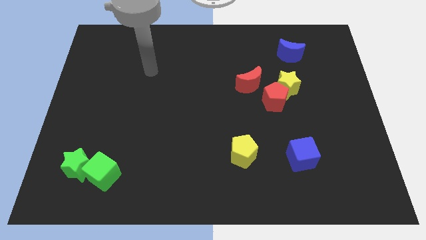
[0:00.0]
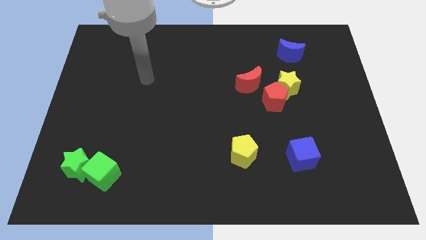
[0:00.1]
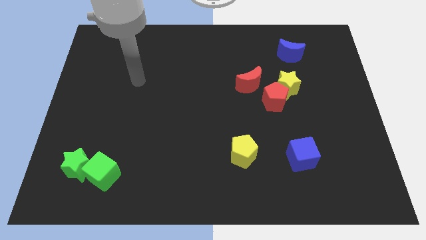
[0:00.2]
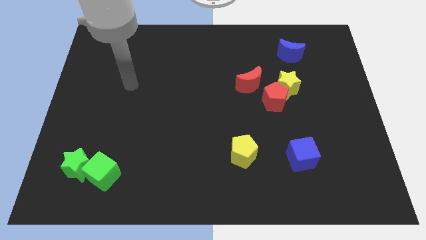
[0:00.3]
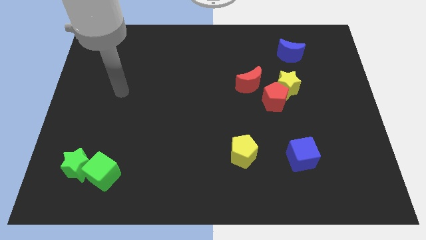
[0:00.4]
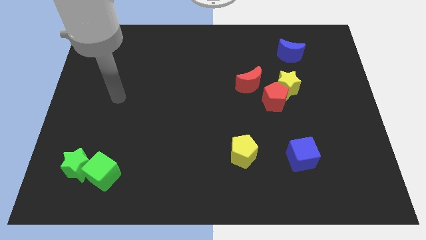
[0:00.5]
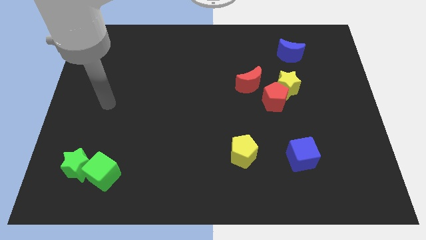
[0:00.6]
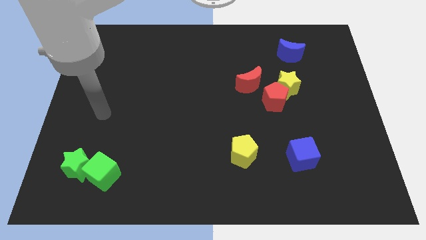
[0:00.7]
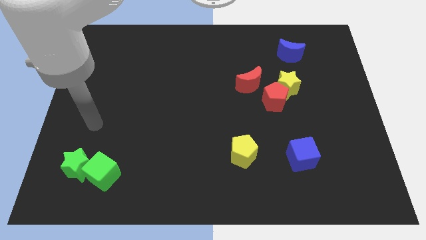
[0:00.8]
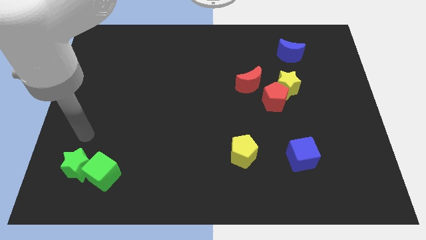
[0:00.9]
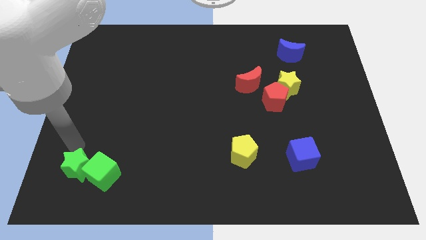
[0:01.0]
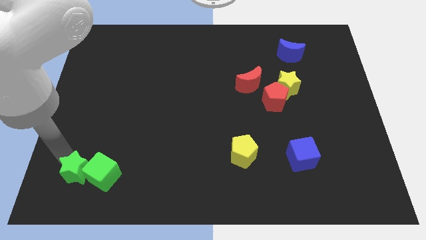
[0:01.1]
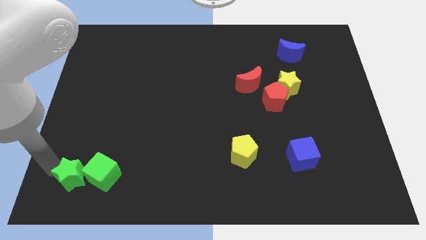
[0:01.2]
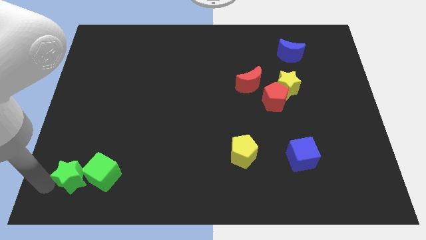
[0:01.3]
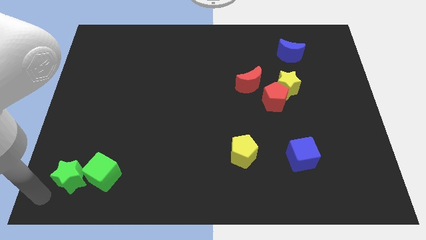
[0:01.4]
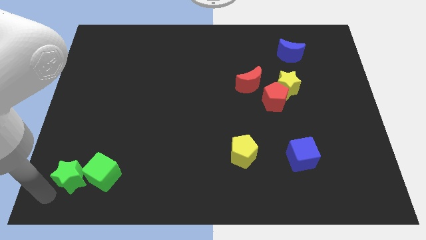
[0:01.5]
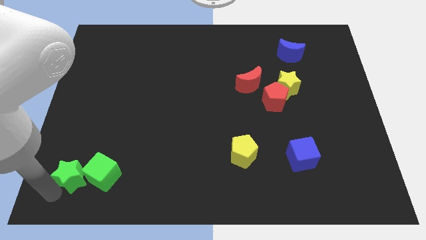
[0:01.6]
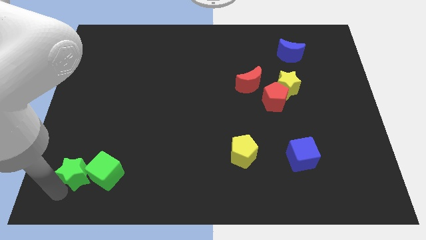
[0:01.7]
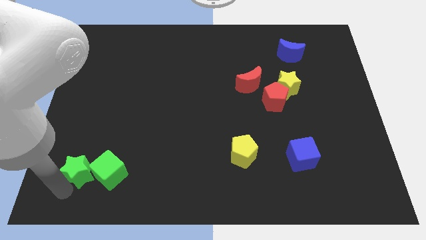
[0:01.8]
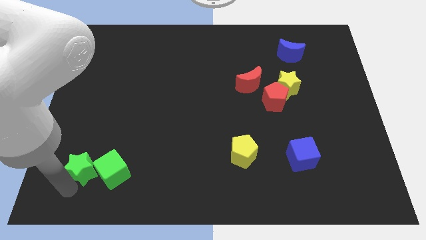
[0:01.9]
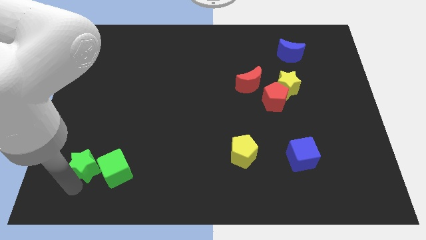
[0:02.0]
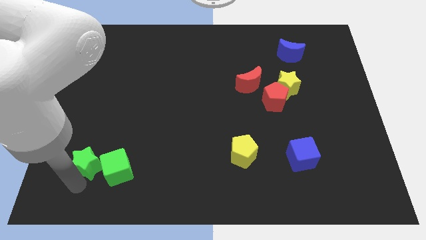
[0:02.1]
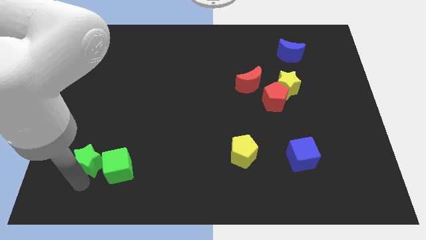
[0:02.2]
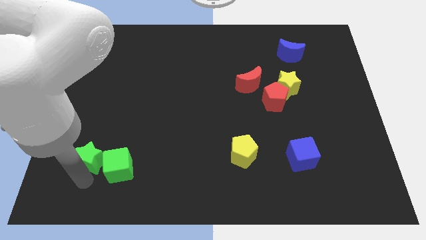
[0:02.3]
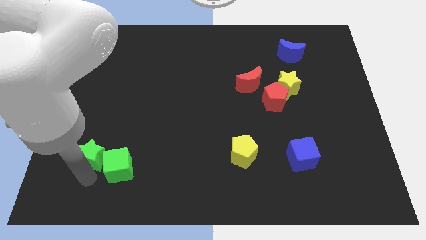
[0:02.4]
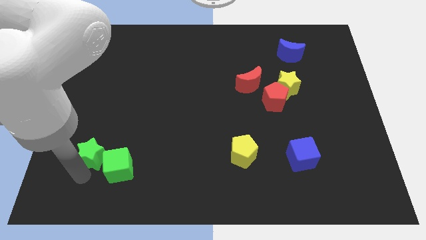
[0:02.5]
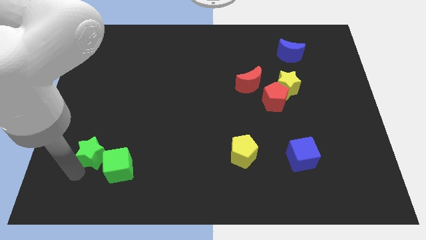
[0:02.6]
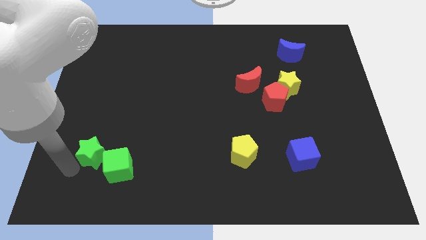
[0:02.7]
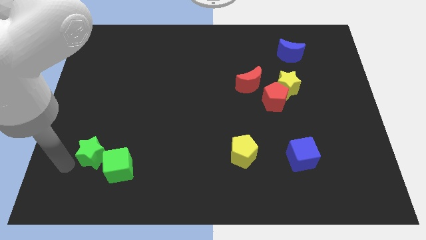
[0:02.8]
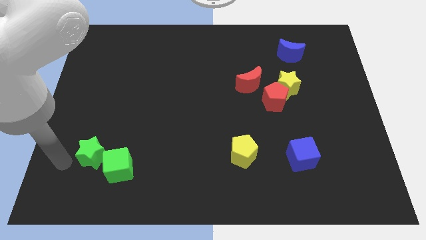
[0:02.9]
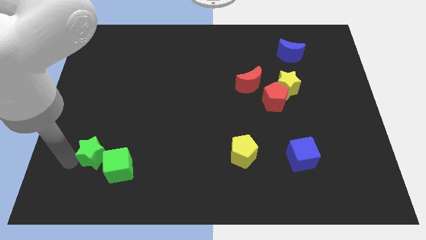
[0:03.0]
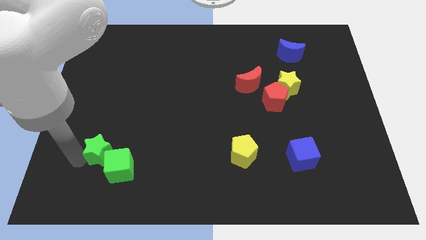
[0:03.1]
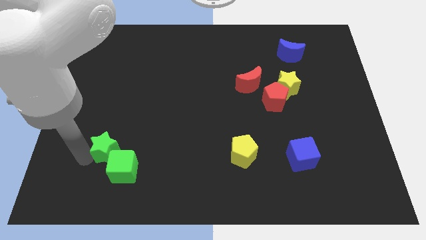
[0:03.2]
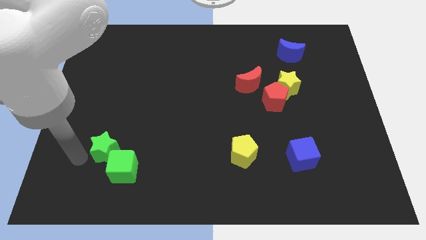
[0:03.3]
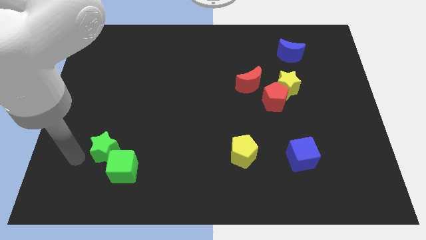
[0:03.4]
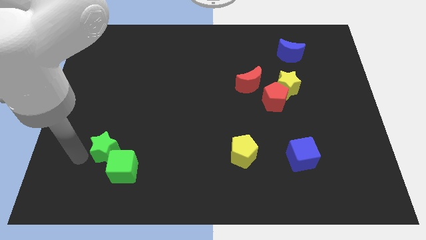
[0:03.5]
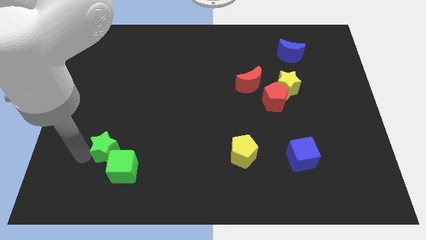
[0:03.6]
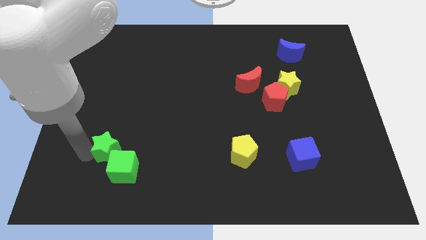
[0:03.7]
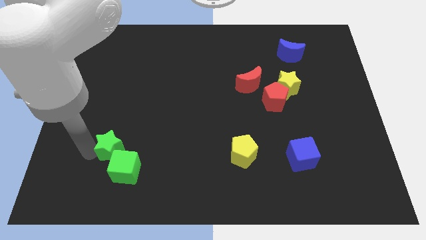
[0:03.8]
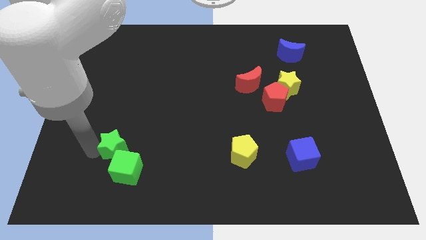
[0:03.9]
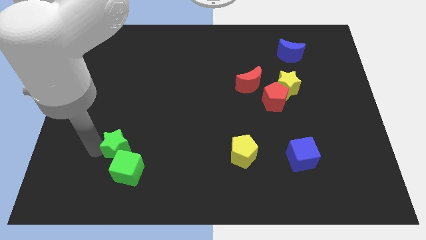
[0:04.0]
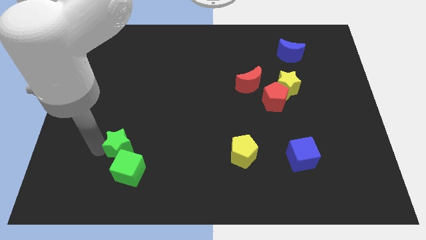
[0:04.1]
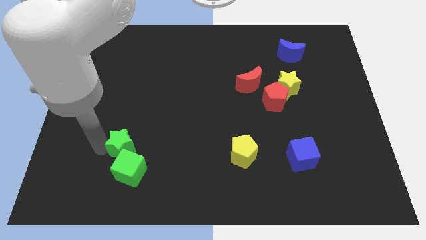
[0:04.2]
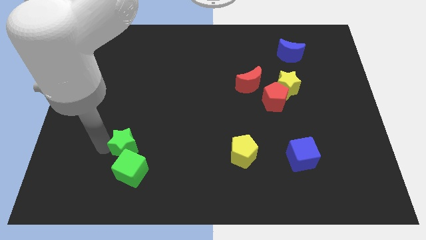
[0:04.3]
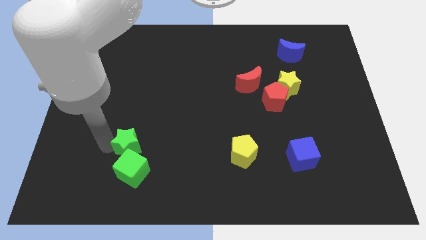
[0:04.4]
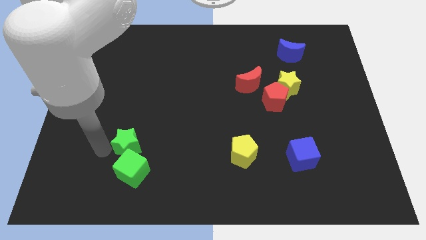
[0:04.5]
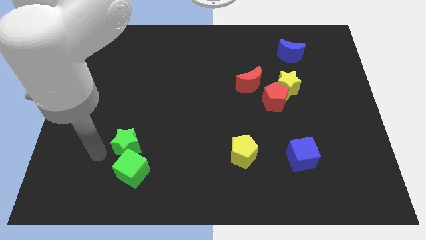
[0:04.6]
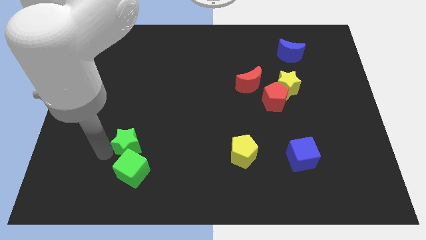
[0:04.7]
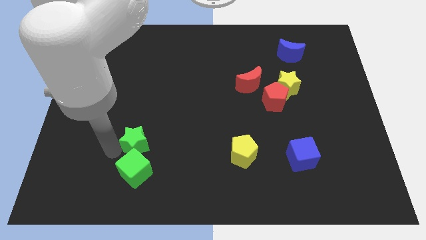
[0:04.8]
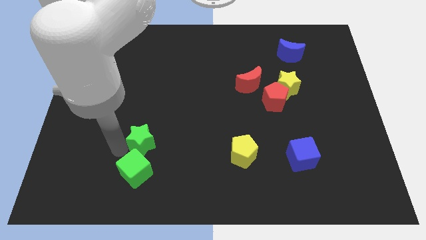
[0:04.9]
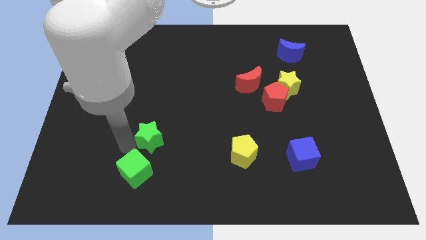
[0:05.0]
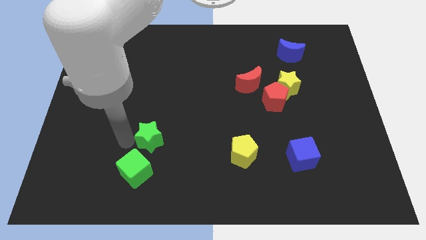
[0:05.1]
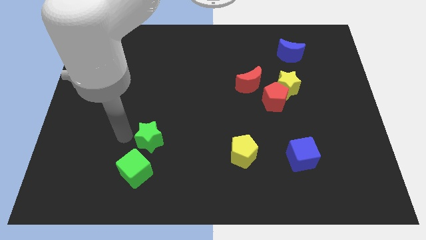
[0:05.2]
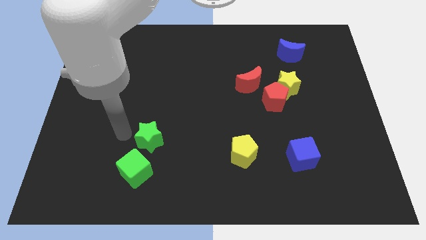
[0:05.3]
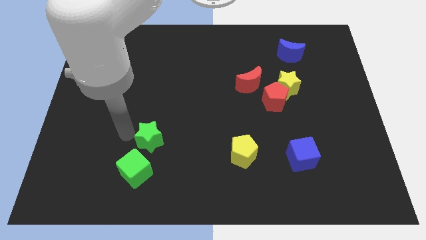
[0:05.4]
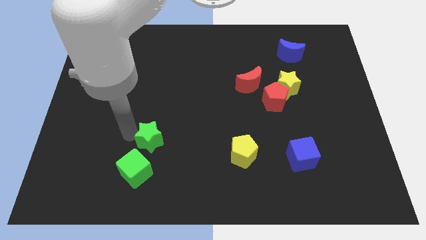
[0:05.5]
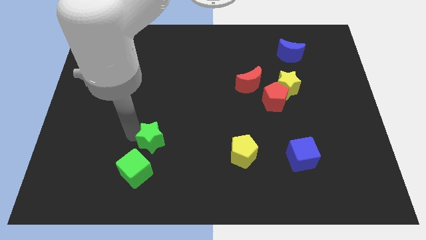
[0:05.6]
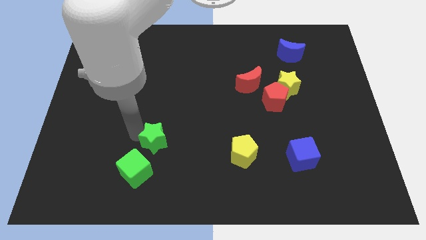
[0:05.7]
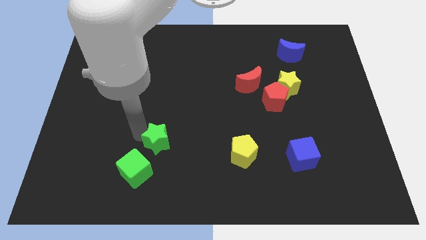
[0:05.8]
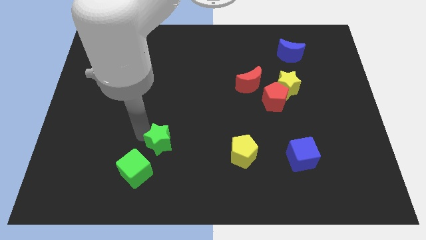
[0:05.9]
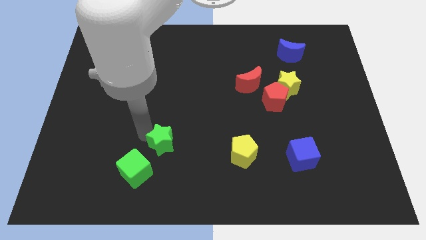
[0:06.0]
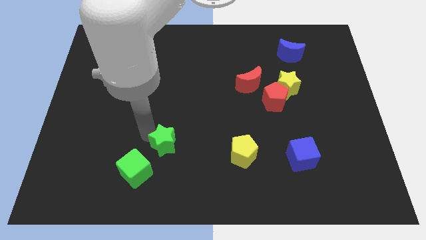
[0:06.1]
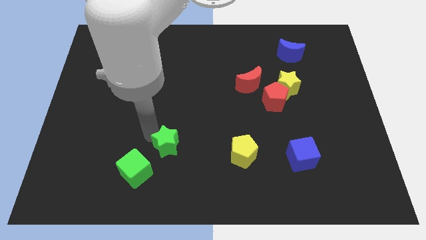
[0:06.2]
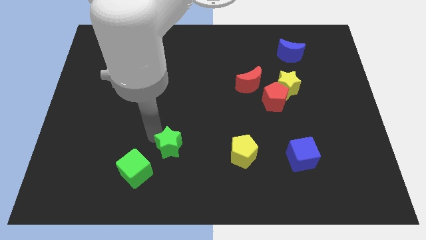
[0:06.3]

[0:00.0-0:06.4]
push the green star left of the yellow pentagon
